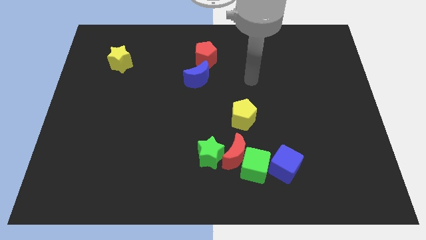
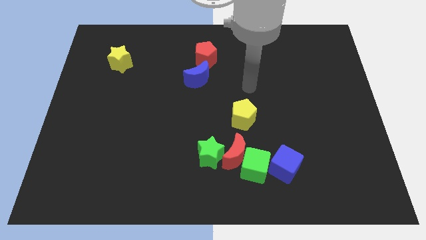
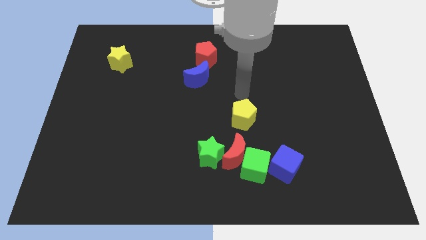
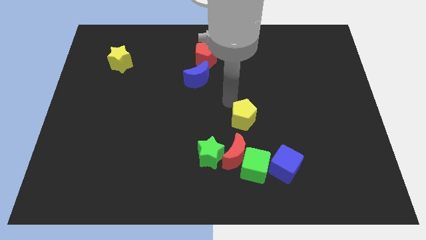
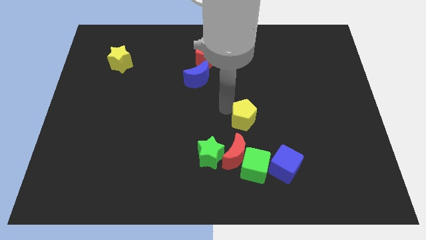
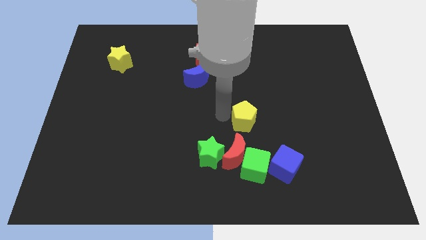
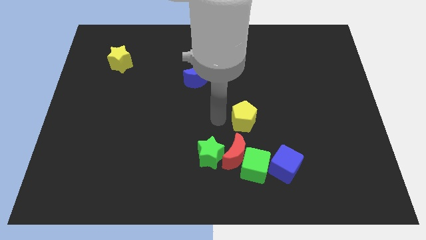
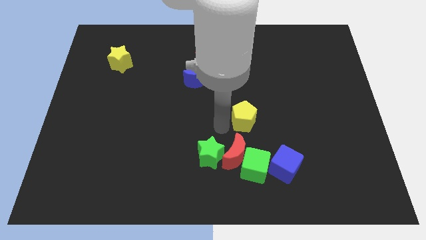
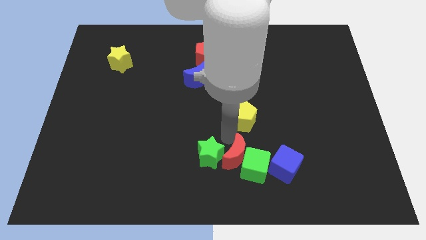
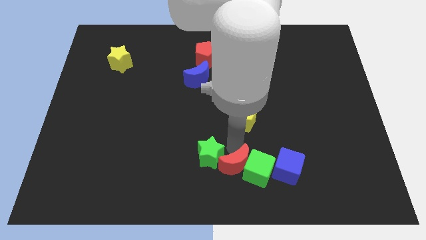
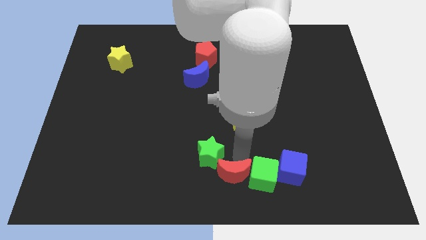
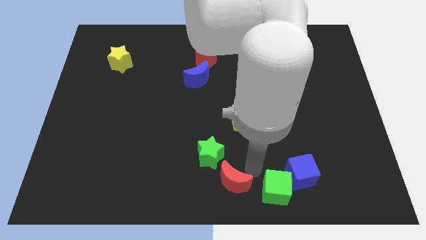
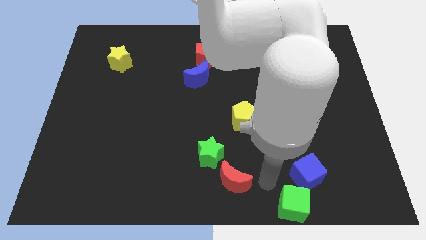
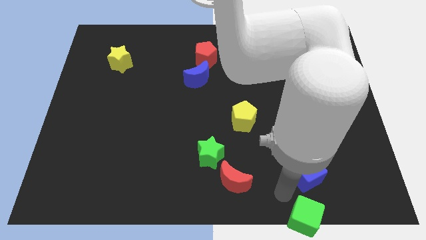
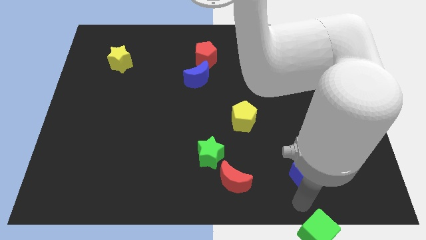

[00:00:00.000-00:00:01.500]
pull the blue cube apart from the green cube

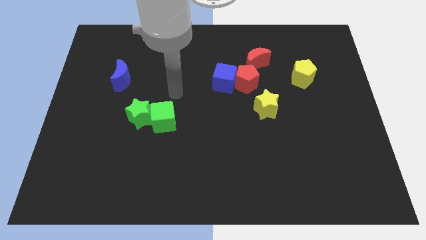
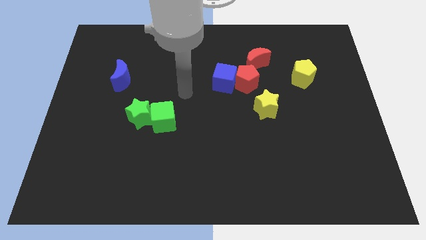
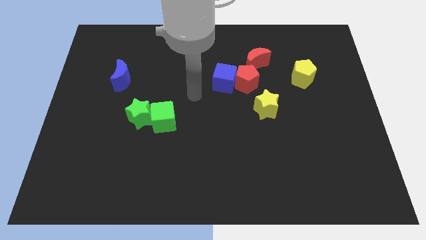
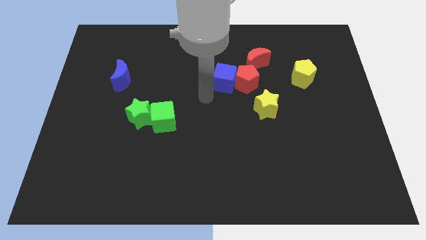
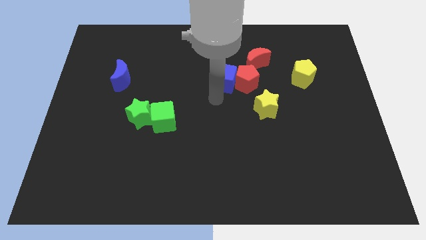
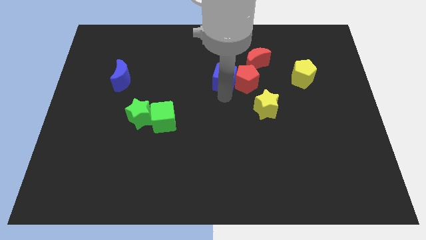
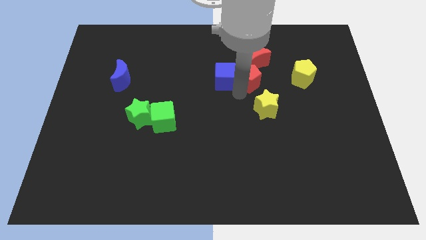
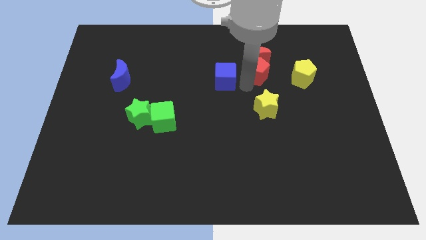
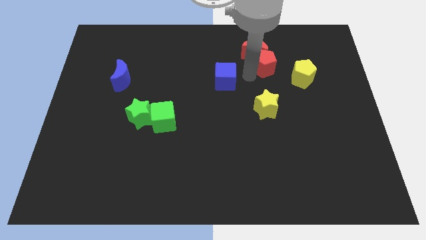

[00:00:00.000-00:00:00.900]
move the blue cube away from the red pentagon

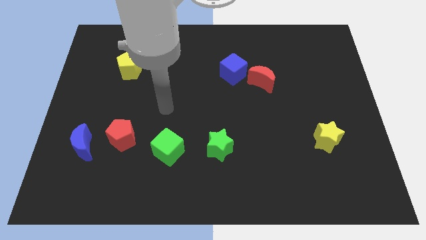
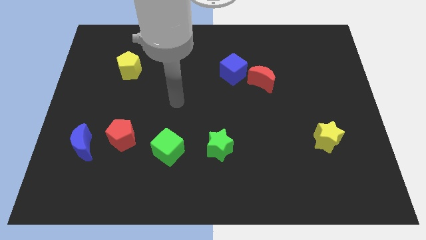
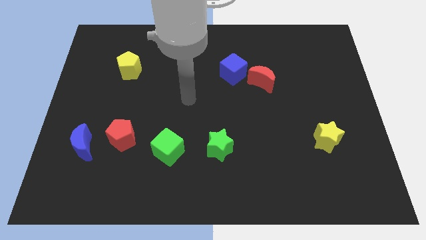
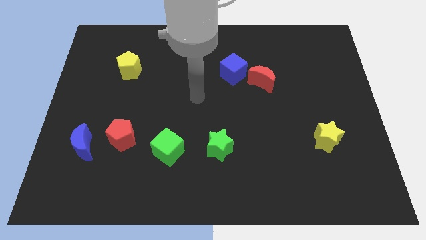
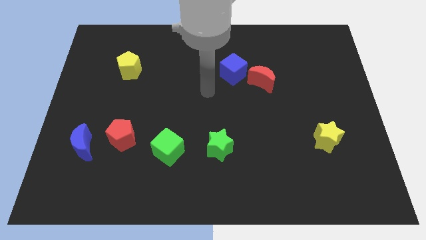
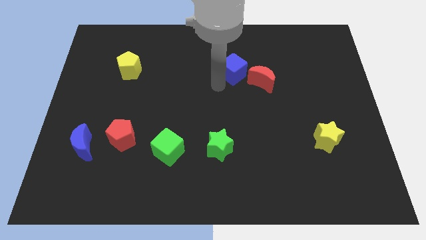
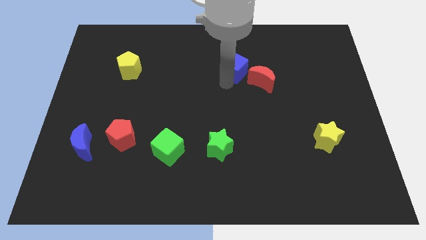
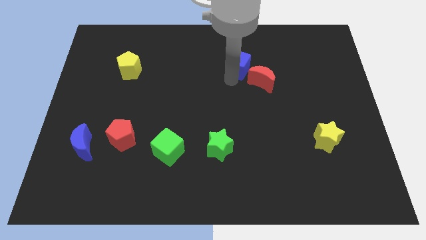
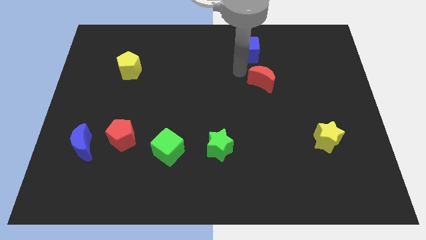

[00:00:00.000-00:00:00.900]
move the red moon away from the blue cube

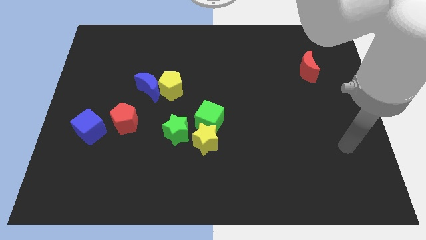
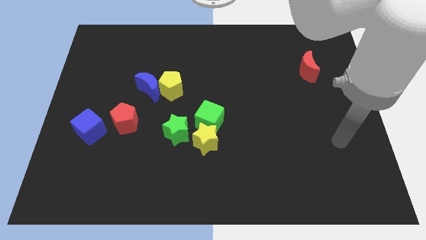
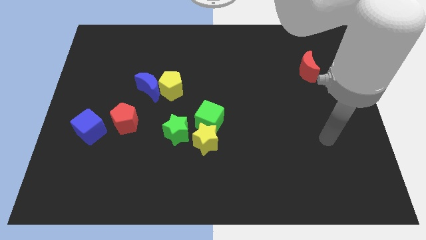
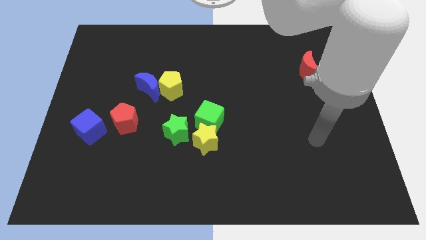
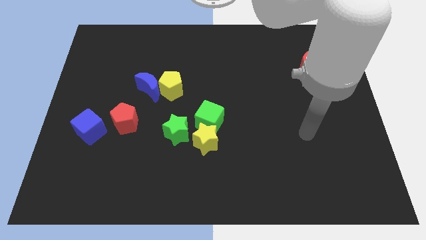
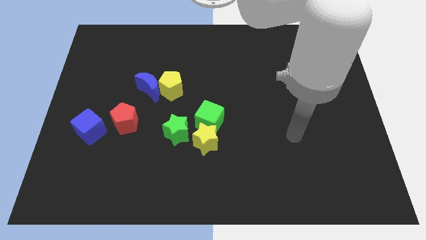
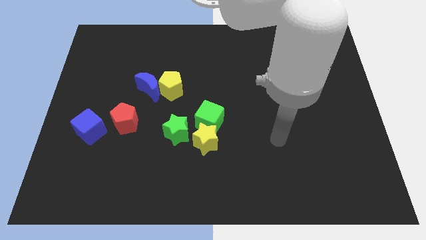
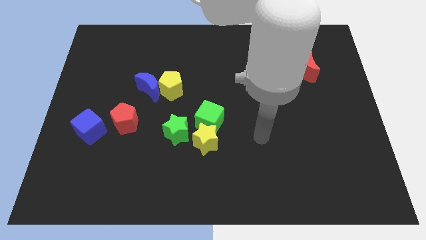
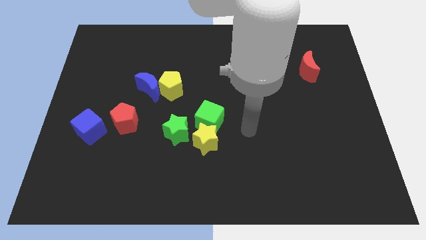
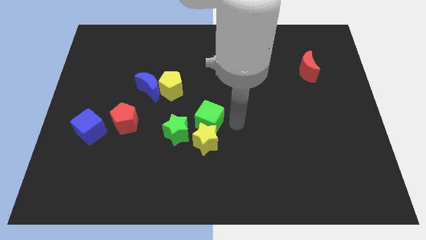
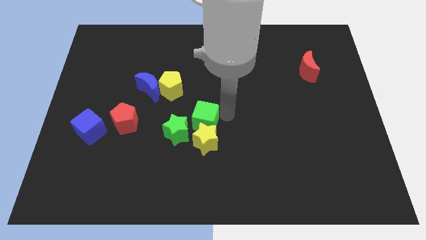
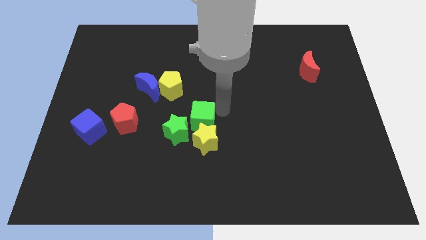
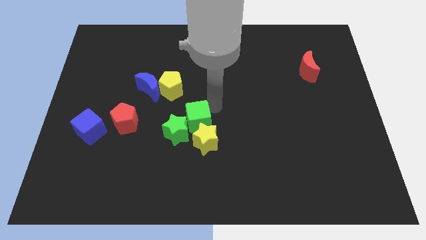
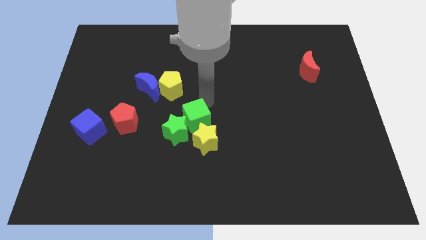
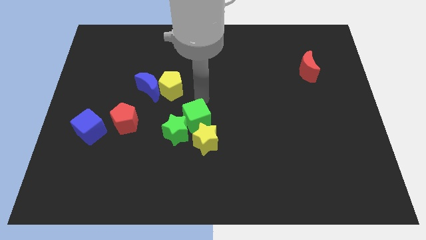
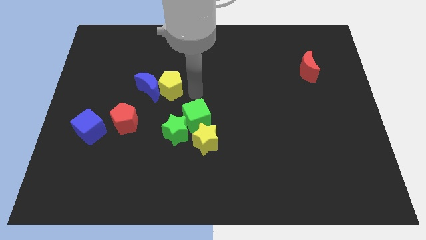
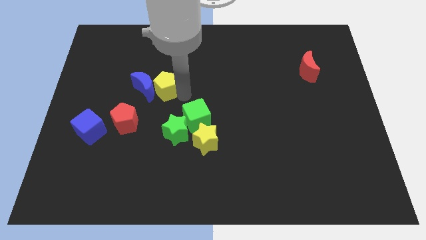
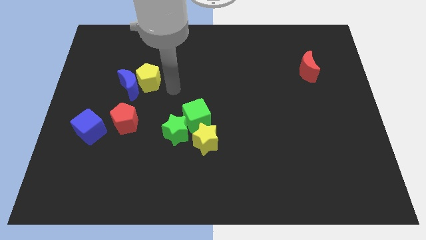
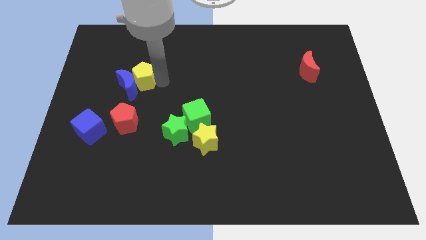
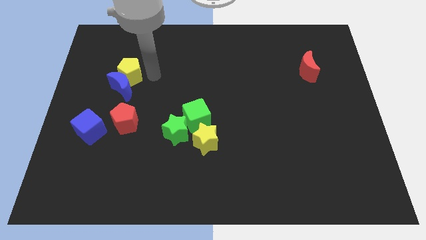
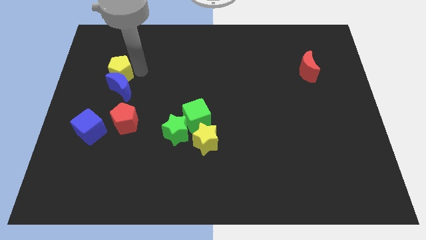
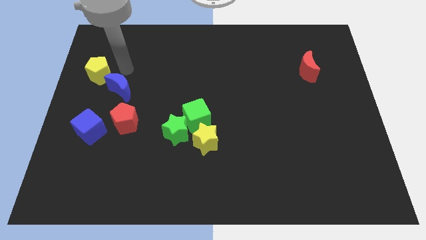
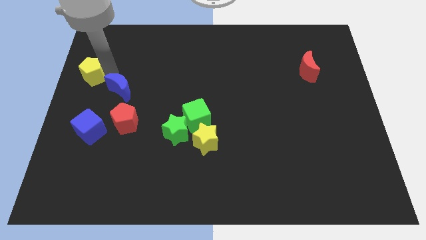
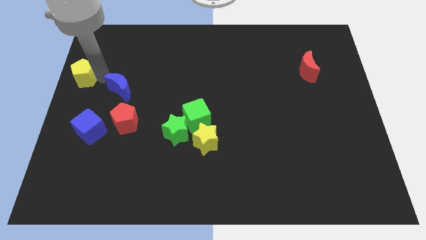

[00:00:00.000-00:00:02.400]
separate the blue moon from the yellow pentagon

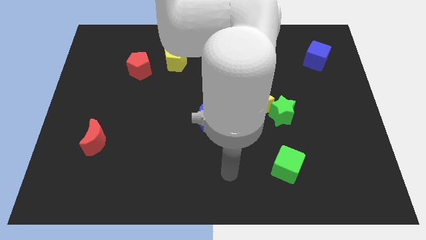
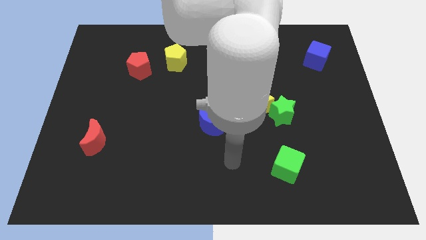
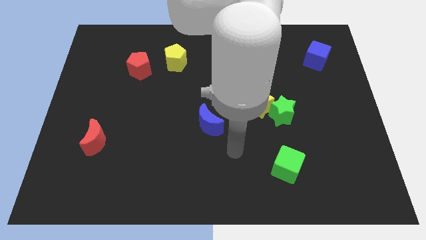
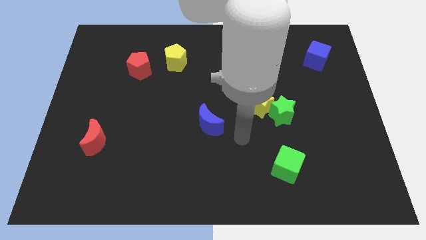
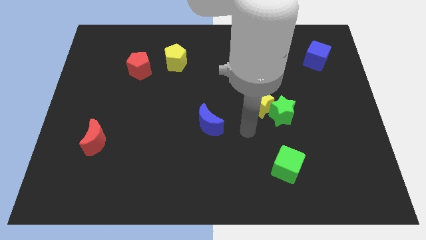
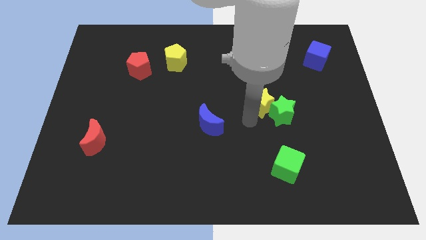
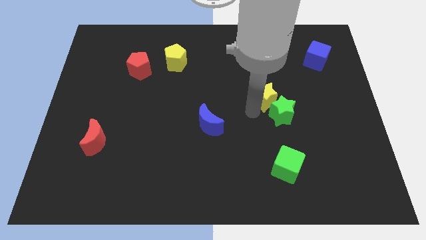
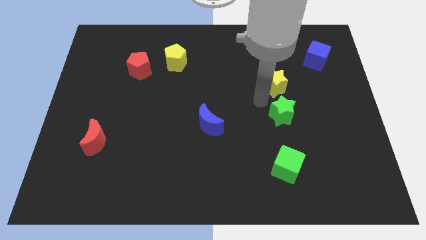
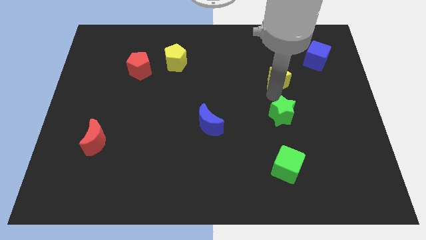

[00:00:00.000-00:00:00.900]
move the green star away from the yellow star

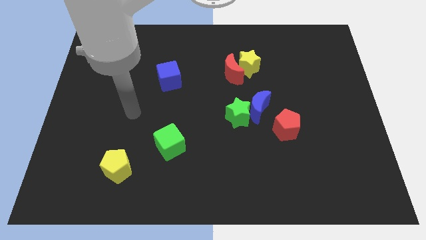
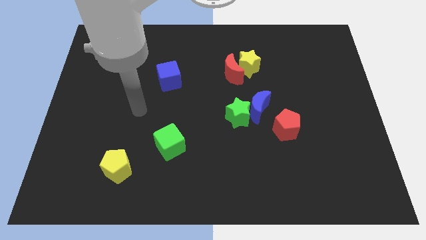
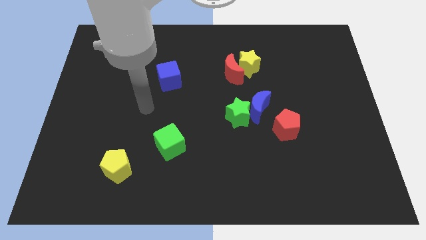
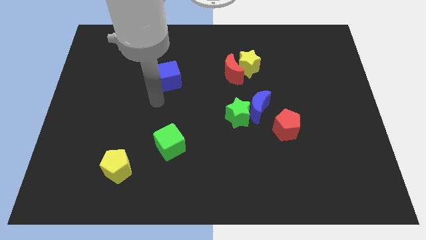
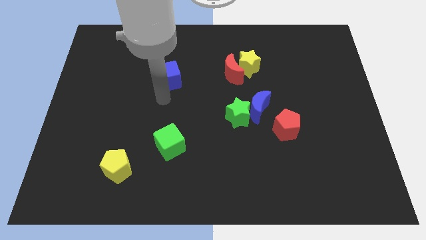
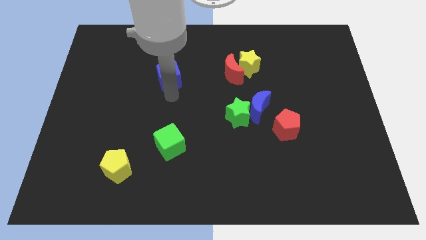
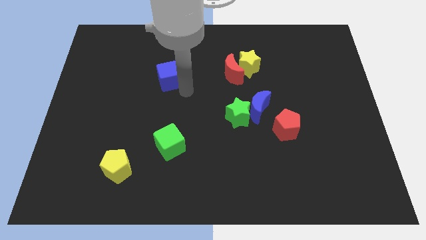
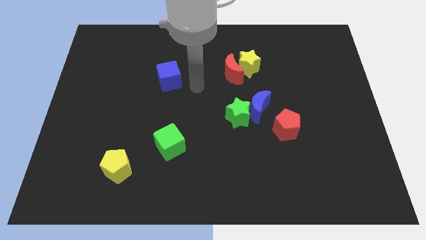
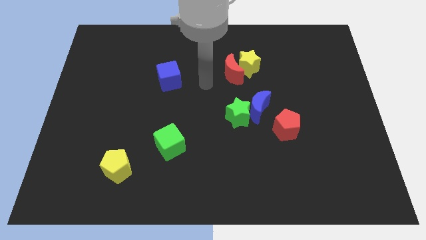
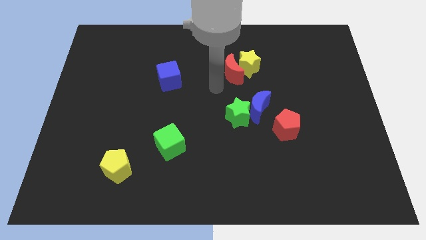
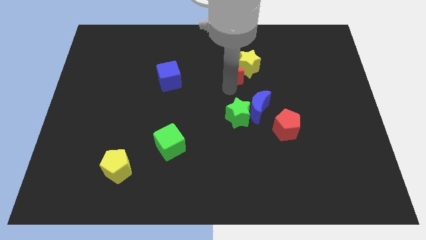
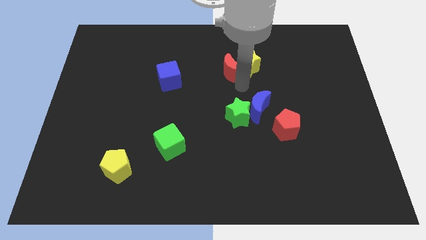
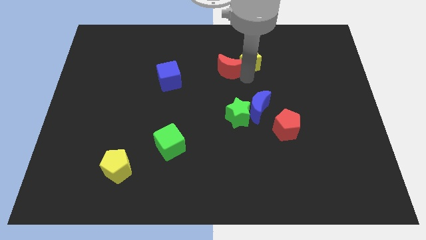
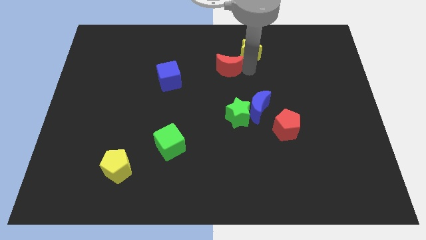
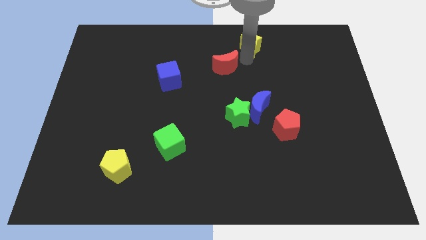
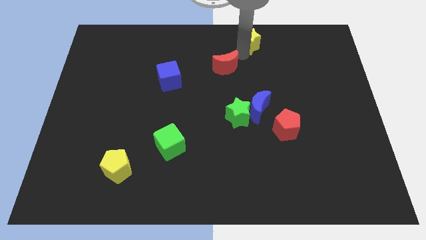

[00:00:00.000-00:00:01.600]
move the red moon away from the yellow star

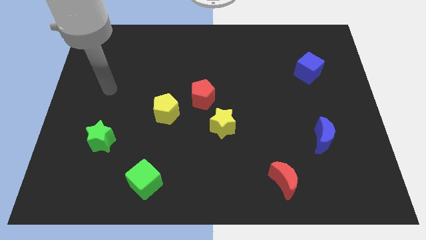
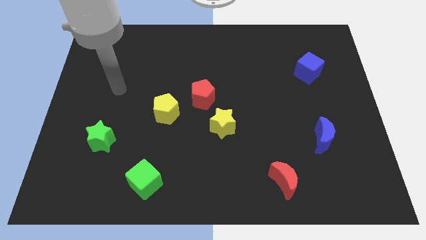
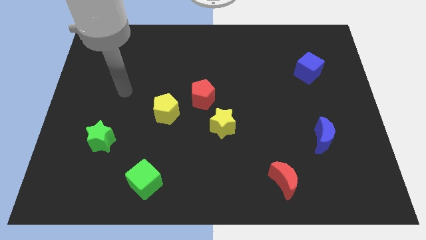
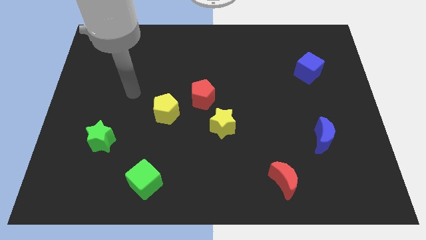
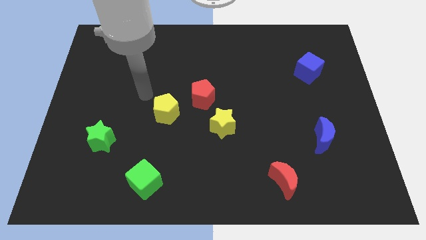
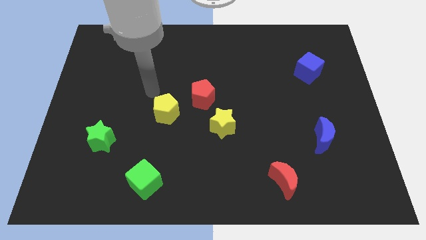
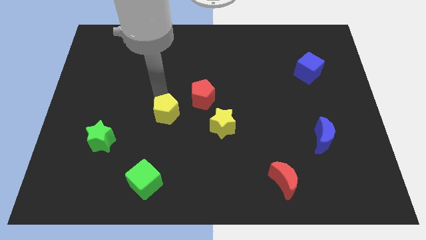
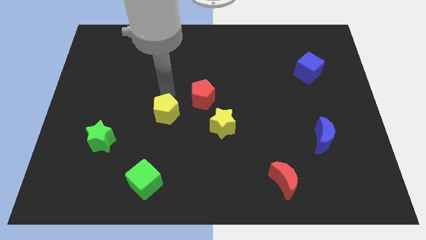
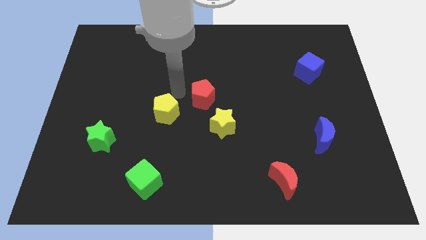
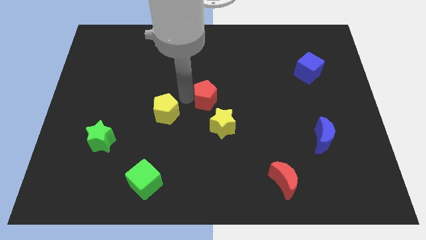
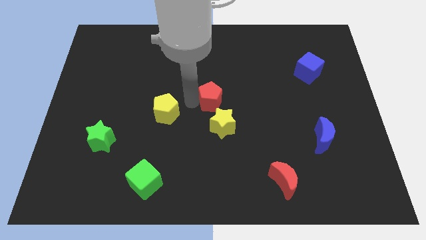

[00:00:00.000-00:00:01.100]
move the yellow pentagon away from the red pentagon

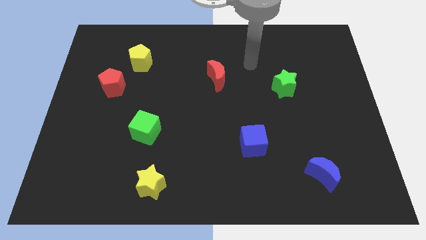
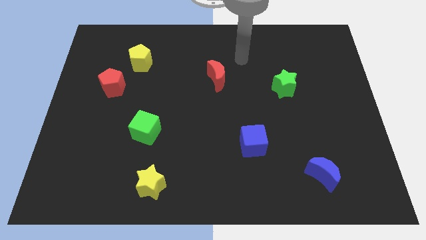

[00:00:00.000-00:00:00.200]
move the red pentagon away from the yellow pentagon
